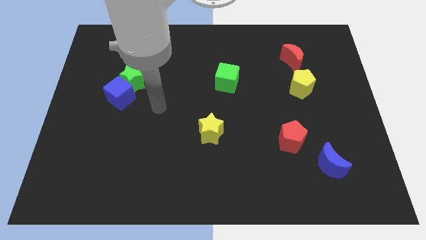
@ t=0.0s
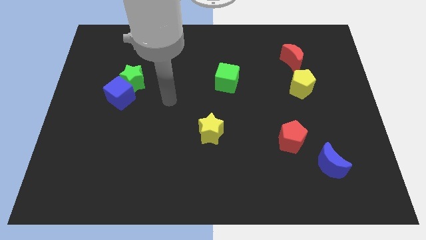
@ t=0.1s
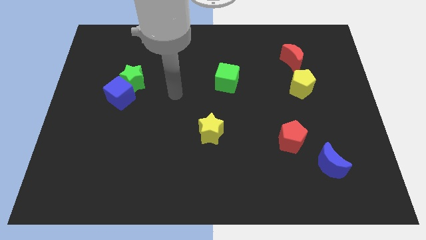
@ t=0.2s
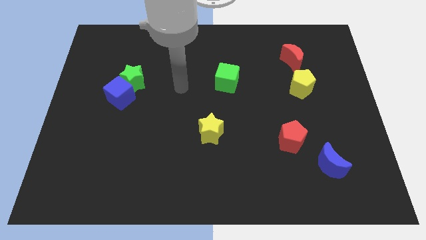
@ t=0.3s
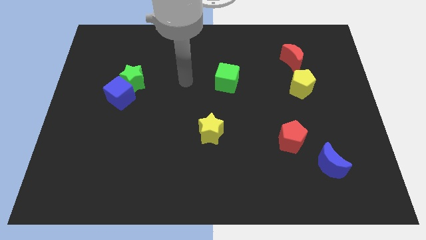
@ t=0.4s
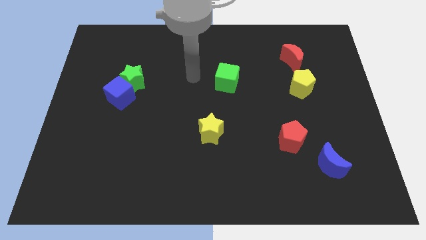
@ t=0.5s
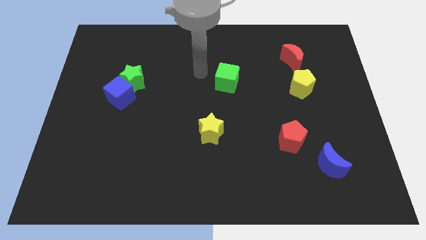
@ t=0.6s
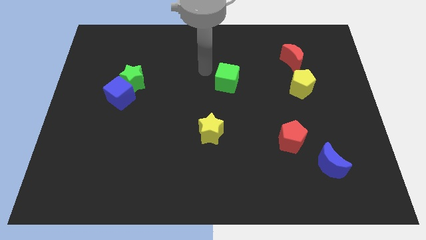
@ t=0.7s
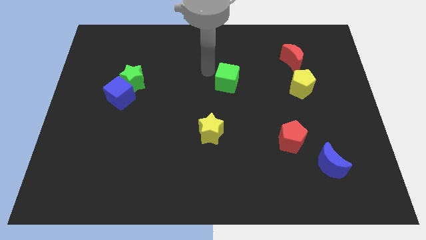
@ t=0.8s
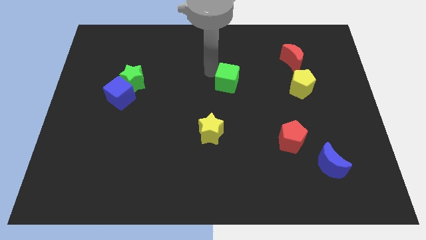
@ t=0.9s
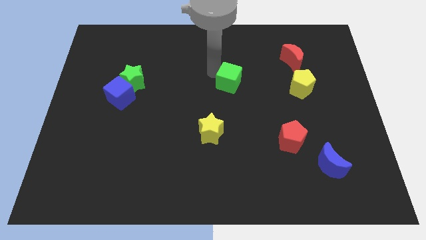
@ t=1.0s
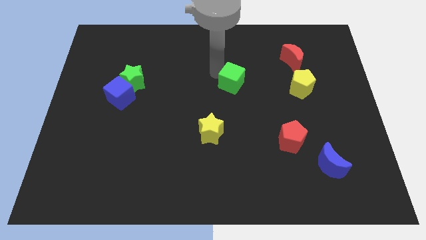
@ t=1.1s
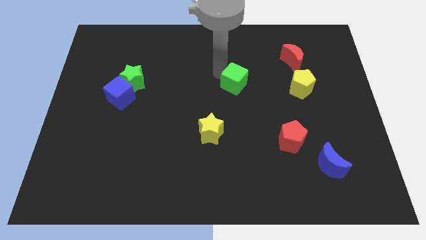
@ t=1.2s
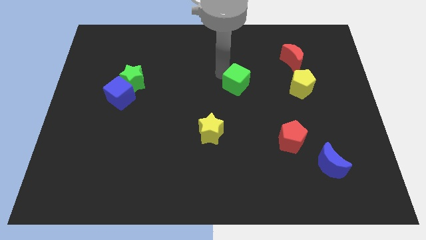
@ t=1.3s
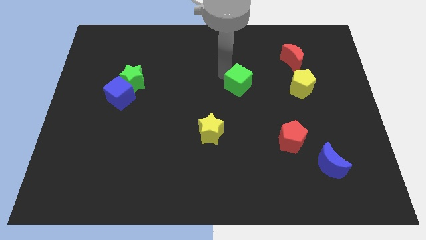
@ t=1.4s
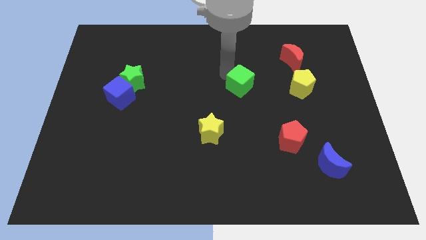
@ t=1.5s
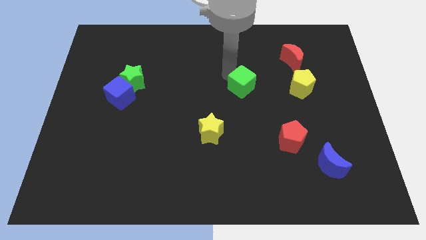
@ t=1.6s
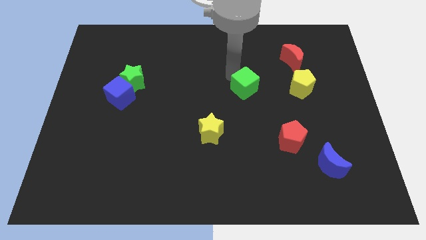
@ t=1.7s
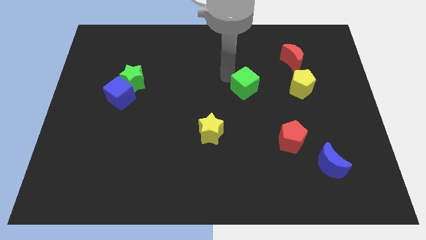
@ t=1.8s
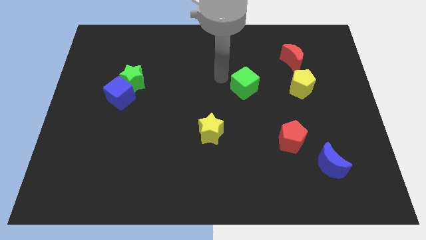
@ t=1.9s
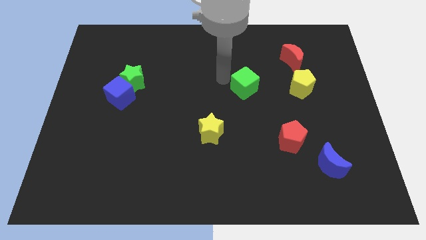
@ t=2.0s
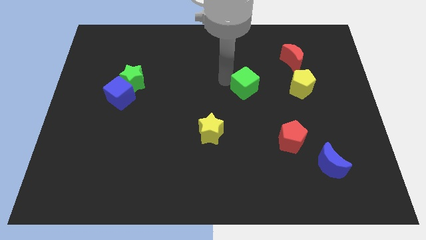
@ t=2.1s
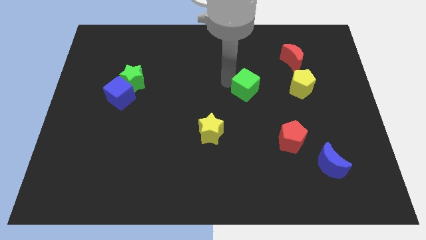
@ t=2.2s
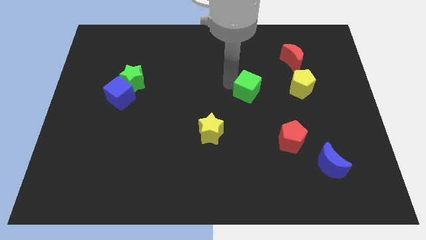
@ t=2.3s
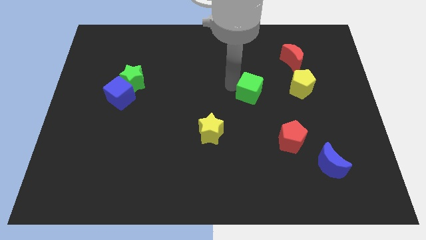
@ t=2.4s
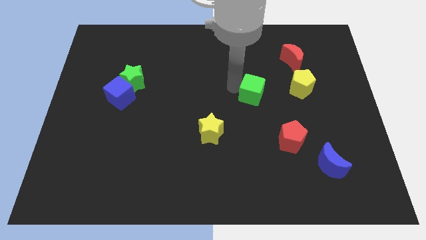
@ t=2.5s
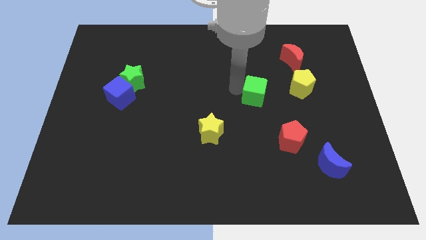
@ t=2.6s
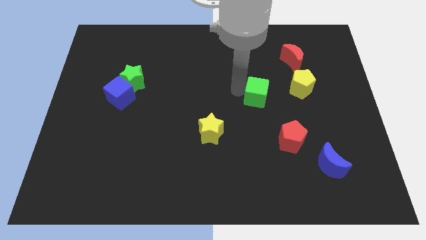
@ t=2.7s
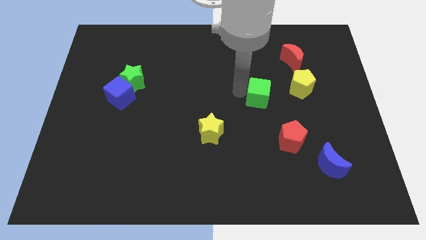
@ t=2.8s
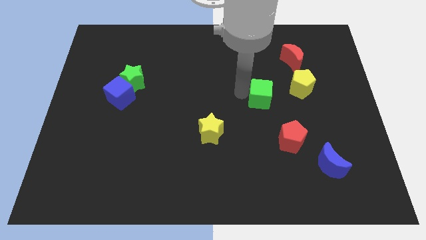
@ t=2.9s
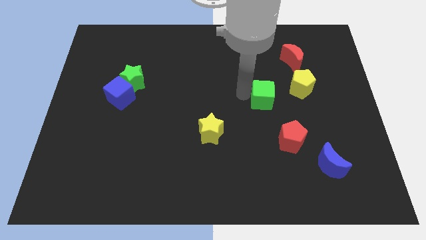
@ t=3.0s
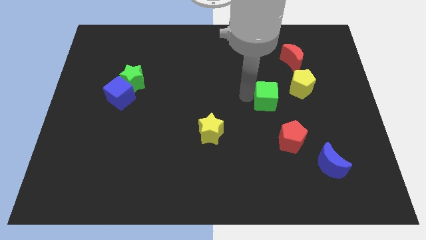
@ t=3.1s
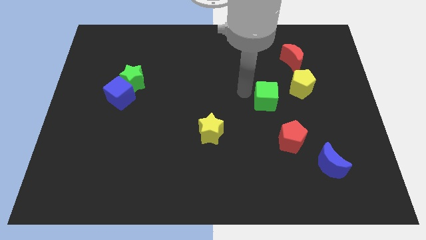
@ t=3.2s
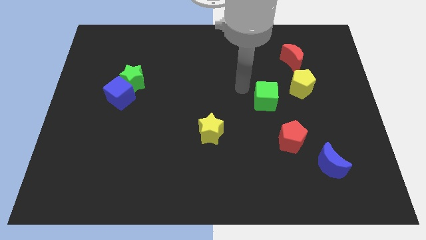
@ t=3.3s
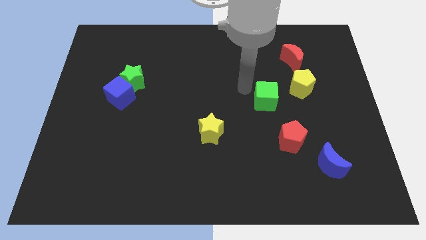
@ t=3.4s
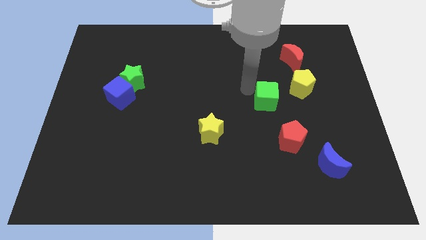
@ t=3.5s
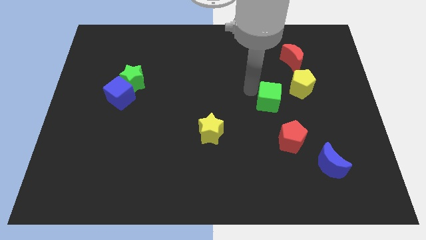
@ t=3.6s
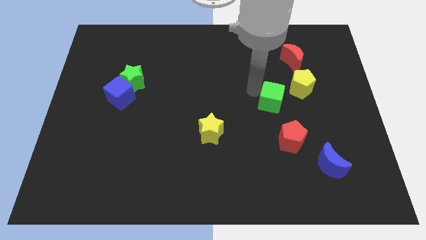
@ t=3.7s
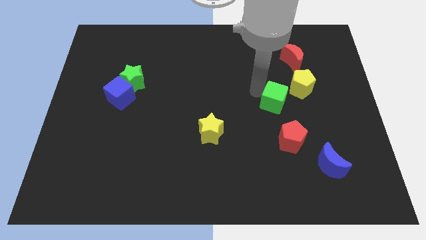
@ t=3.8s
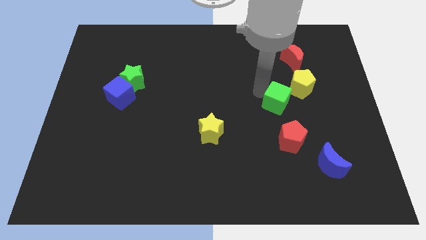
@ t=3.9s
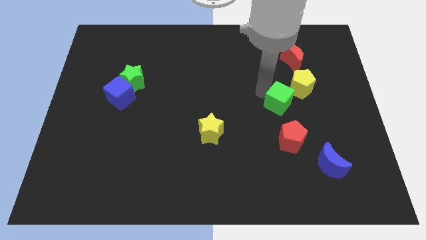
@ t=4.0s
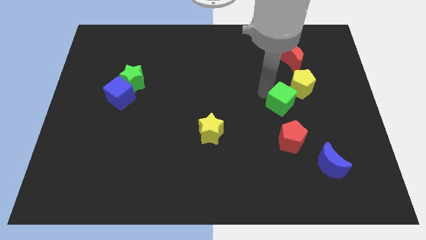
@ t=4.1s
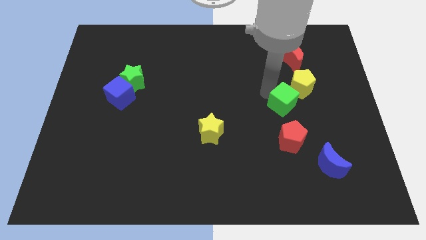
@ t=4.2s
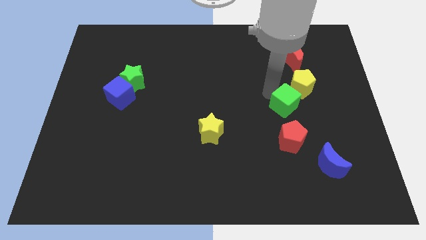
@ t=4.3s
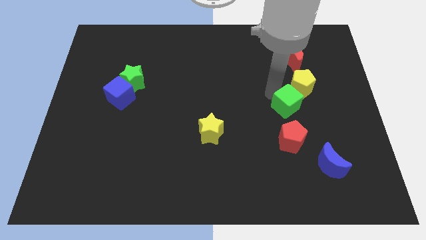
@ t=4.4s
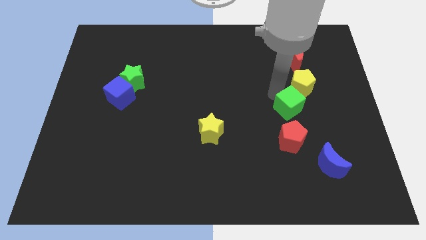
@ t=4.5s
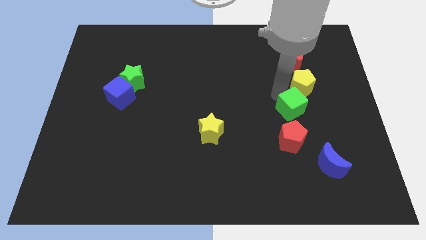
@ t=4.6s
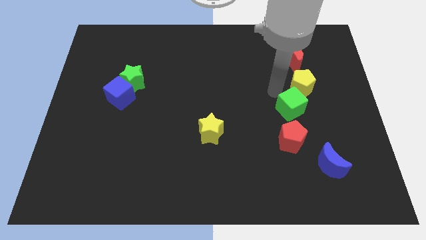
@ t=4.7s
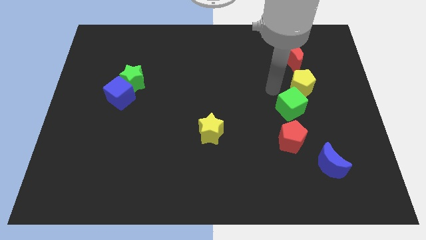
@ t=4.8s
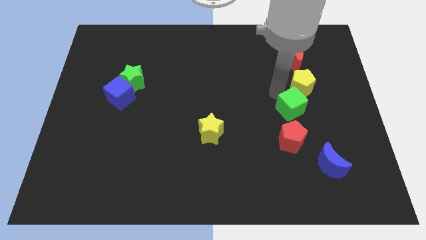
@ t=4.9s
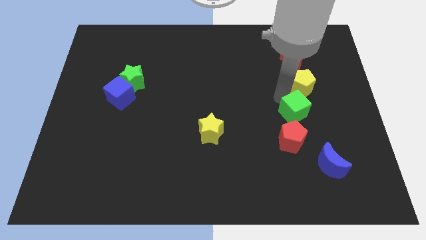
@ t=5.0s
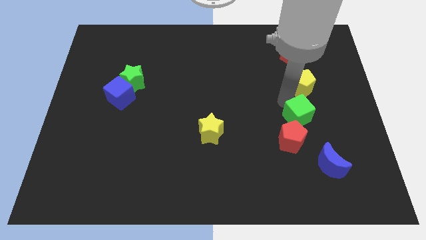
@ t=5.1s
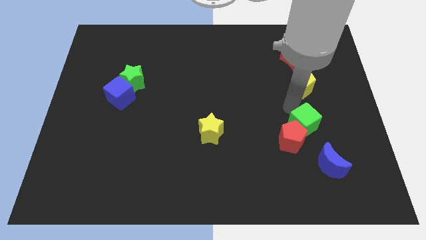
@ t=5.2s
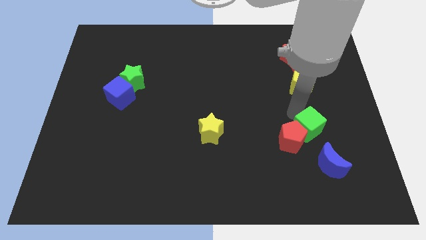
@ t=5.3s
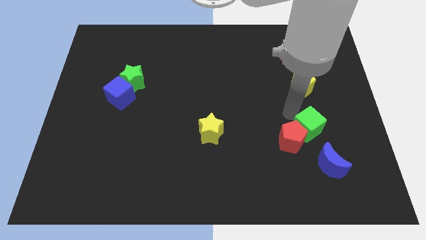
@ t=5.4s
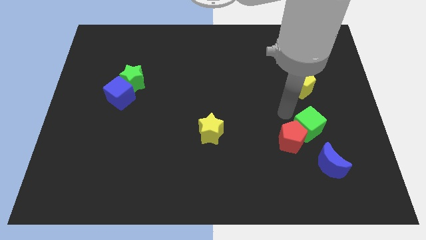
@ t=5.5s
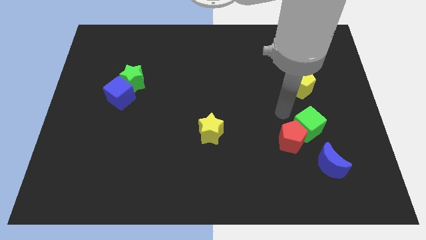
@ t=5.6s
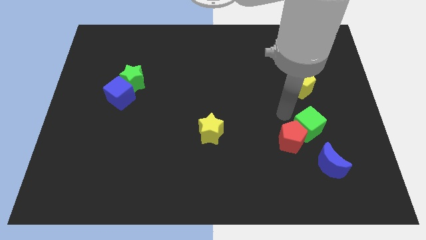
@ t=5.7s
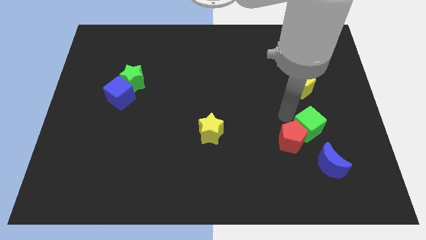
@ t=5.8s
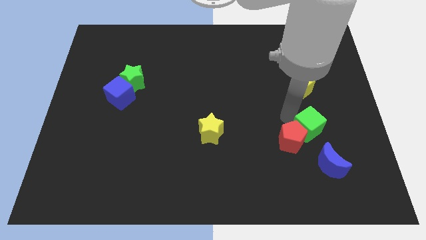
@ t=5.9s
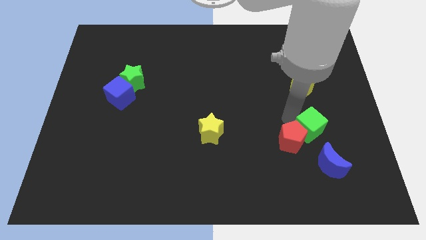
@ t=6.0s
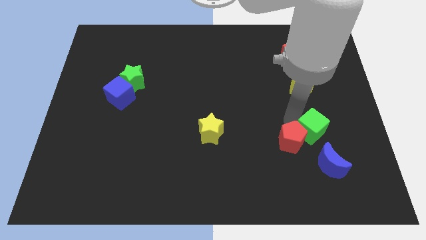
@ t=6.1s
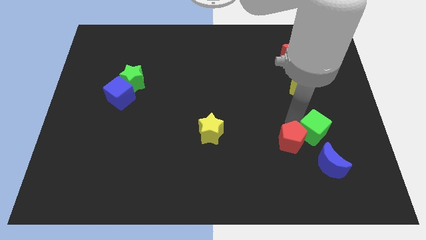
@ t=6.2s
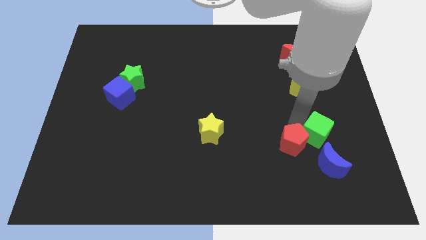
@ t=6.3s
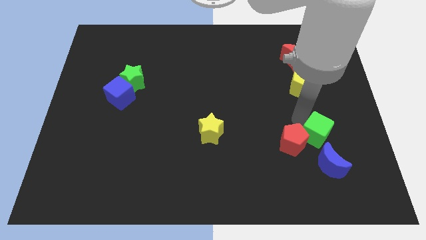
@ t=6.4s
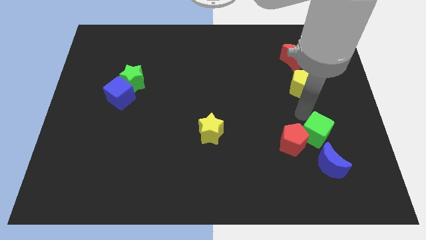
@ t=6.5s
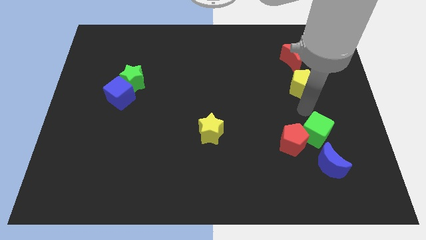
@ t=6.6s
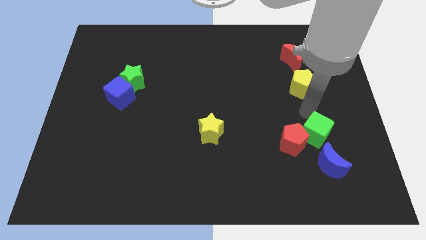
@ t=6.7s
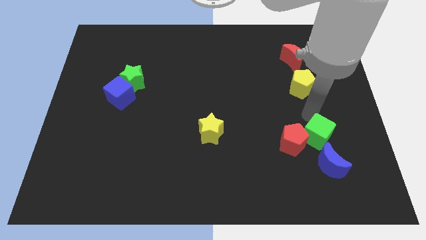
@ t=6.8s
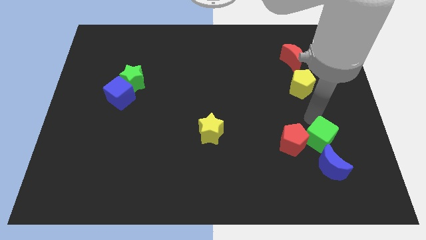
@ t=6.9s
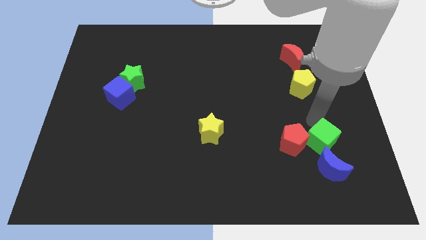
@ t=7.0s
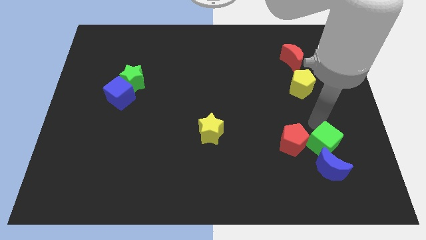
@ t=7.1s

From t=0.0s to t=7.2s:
put the green cube to the blue moon
